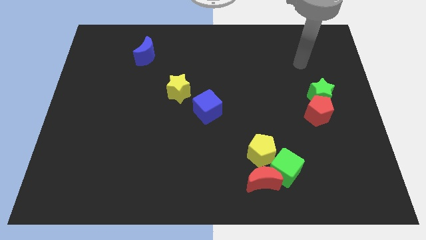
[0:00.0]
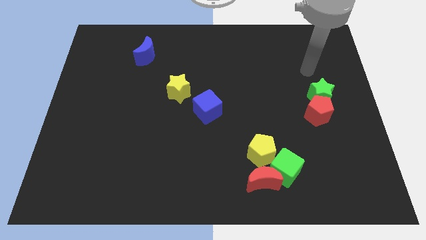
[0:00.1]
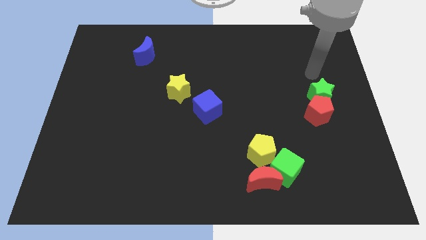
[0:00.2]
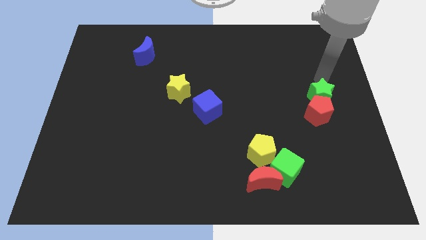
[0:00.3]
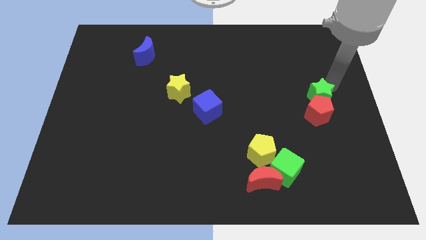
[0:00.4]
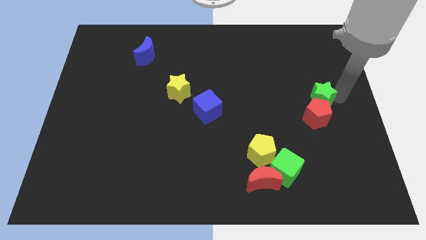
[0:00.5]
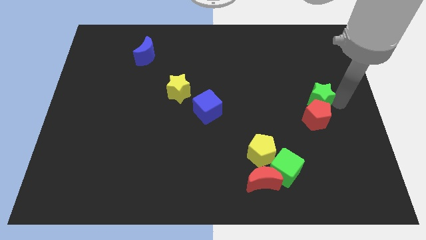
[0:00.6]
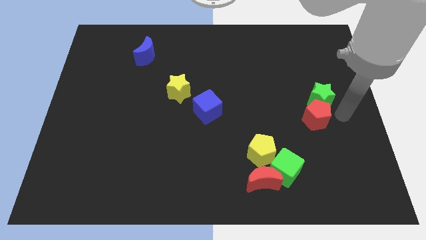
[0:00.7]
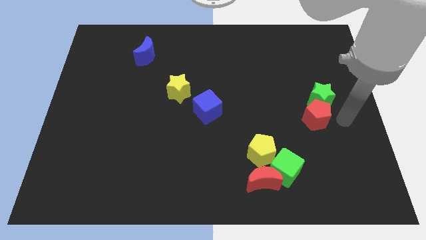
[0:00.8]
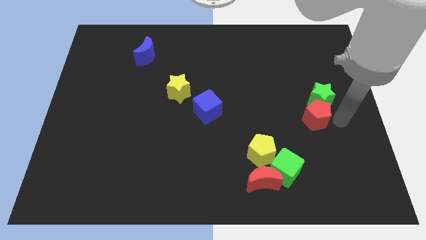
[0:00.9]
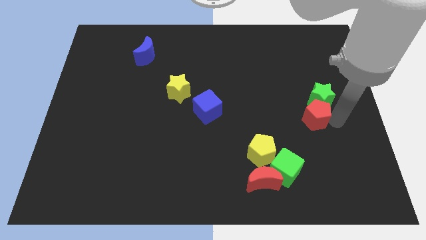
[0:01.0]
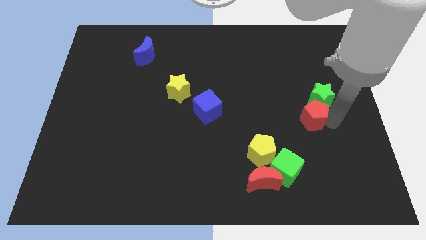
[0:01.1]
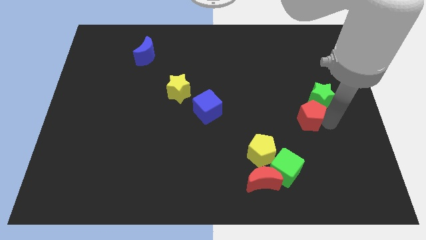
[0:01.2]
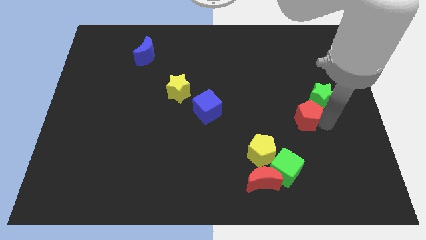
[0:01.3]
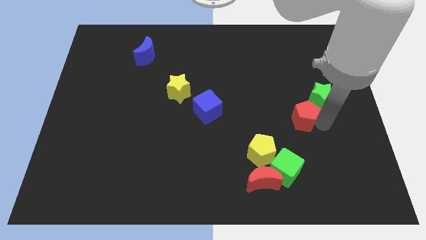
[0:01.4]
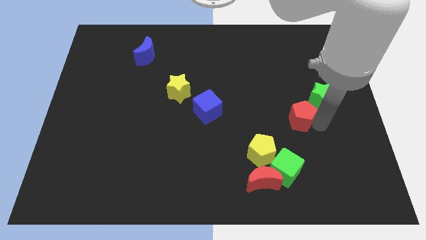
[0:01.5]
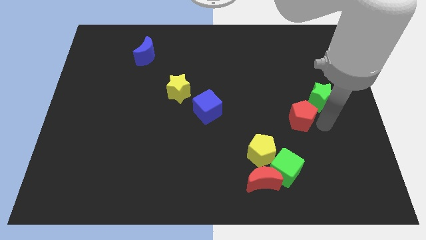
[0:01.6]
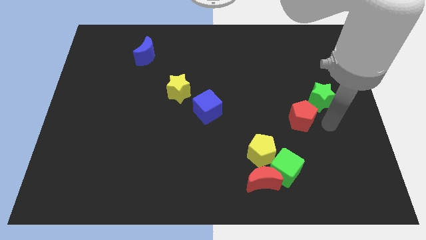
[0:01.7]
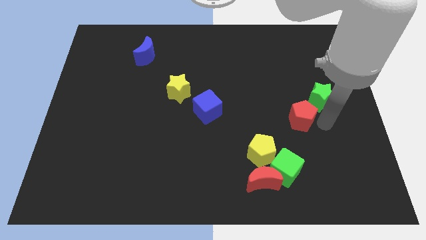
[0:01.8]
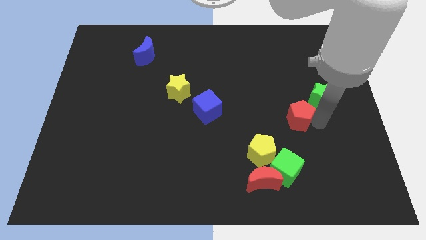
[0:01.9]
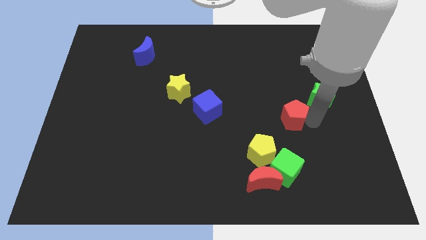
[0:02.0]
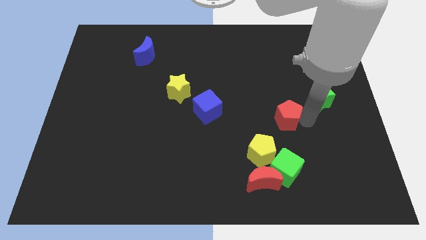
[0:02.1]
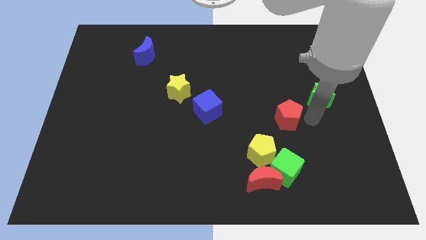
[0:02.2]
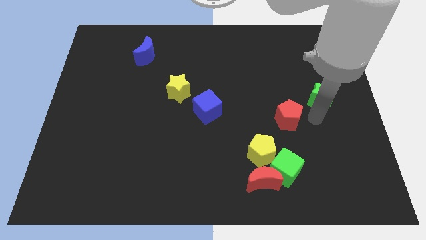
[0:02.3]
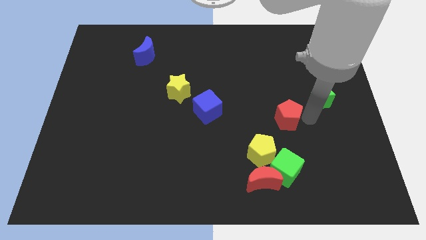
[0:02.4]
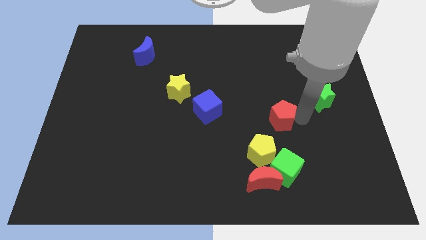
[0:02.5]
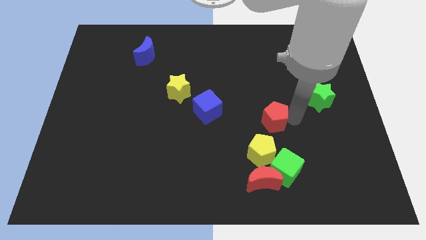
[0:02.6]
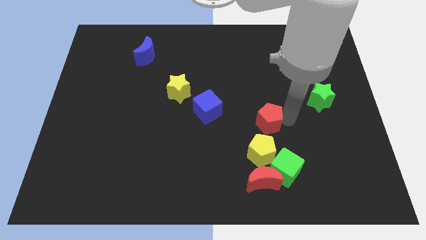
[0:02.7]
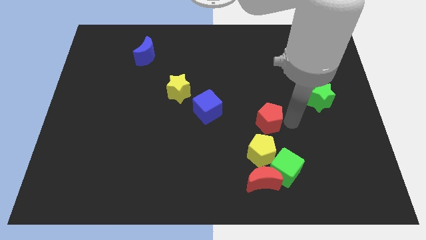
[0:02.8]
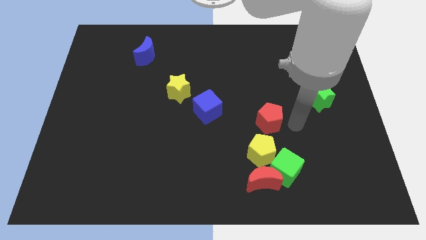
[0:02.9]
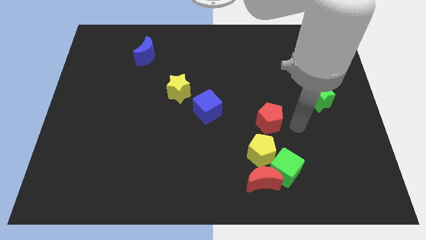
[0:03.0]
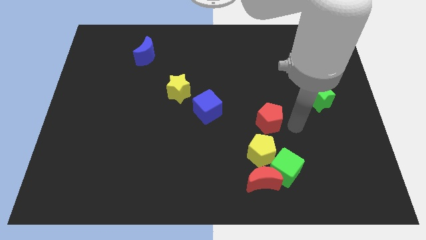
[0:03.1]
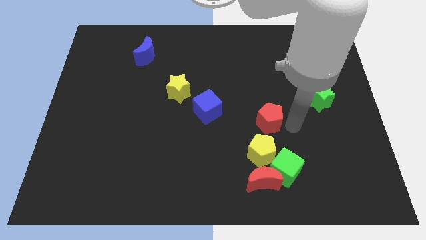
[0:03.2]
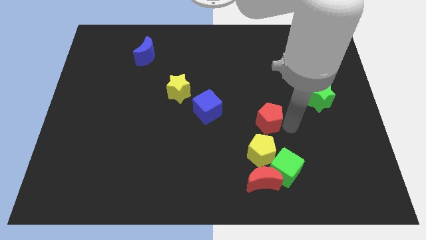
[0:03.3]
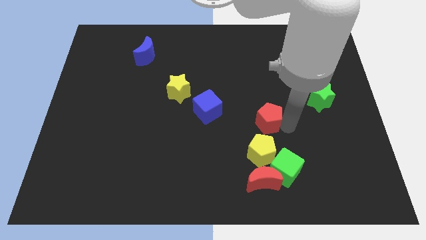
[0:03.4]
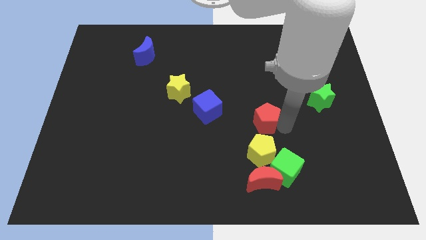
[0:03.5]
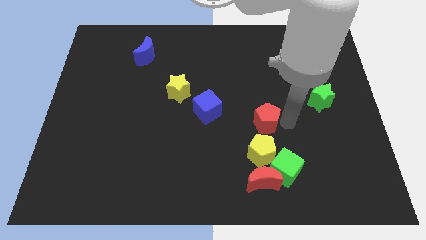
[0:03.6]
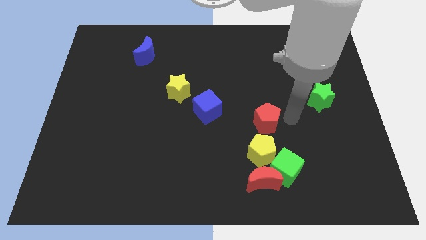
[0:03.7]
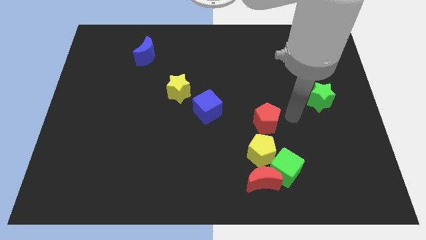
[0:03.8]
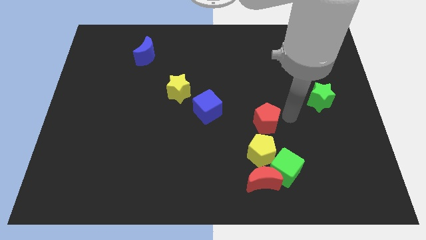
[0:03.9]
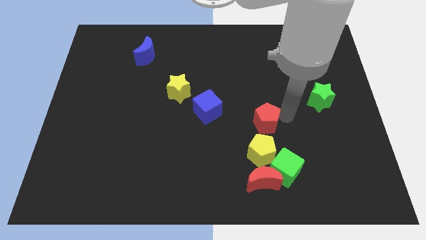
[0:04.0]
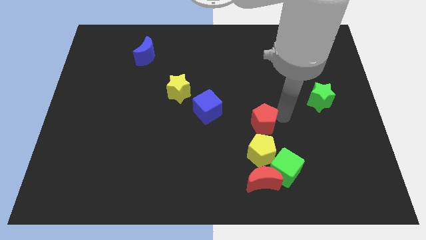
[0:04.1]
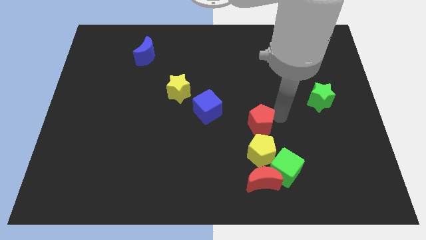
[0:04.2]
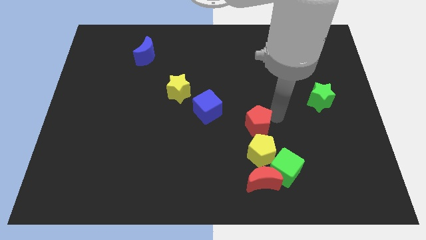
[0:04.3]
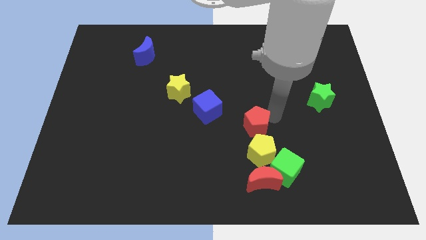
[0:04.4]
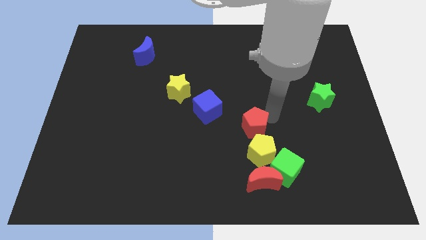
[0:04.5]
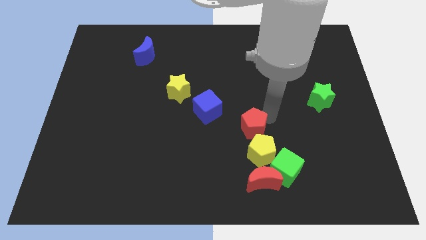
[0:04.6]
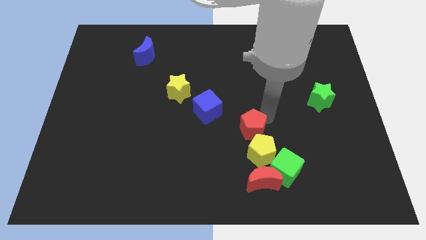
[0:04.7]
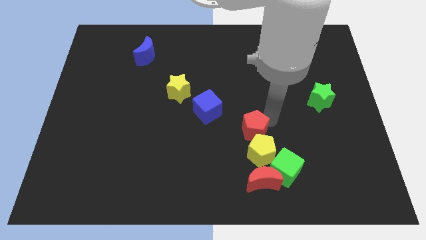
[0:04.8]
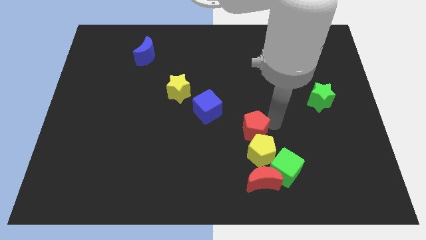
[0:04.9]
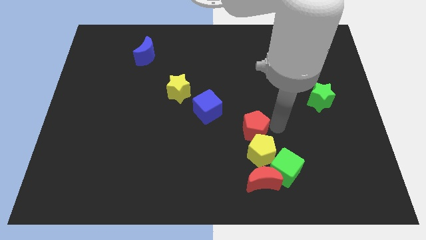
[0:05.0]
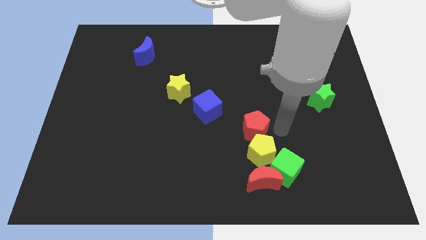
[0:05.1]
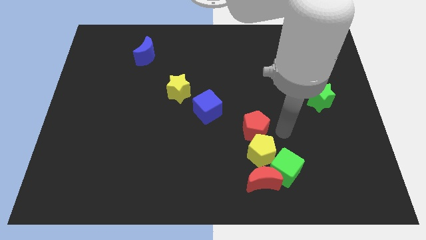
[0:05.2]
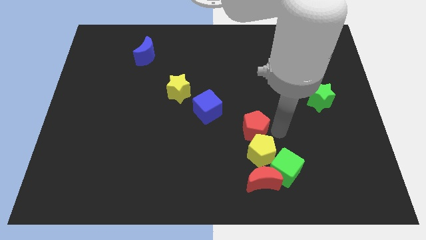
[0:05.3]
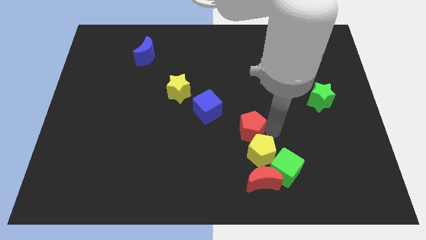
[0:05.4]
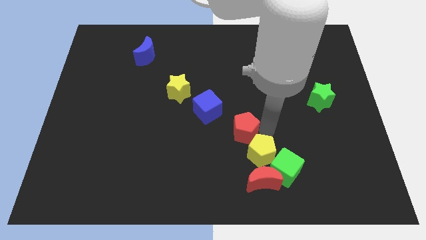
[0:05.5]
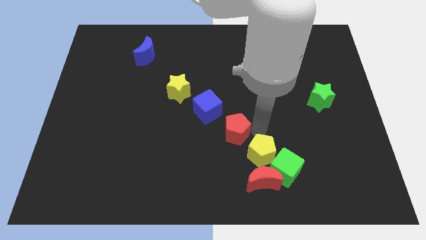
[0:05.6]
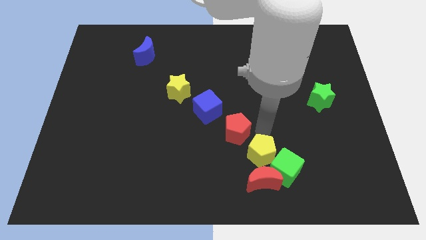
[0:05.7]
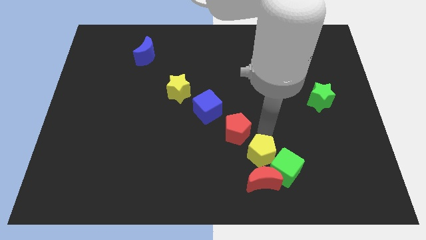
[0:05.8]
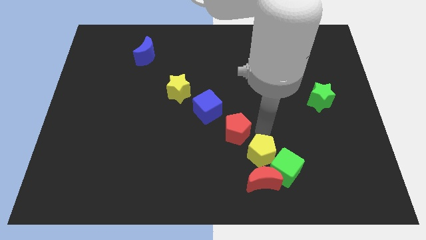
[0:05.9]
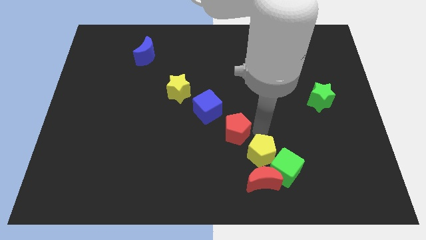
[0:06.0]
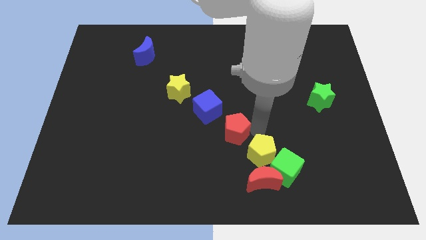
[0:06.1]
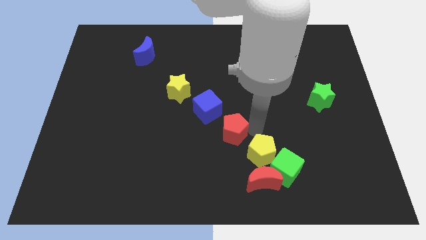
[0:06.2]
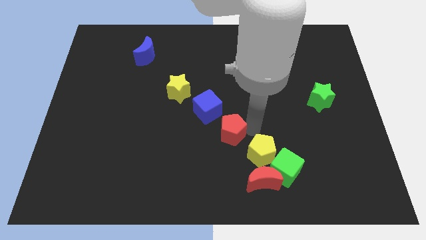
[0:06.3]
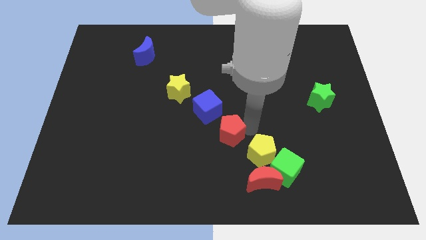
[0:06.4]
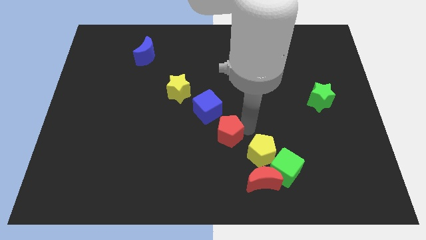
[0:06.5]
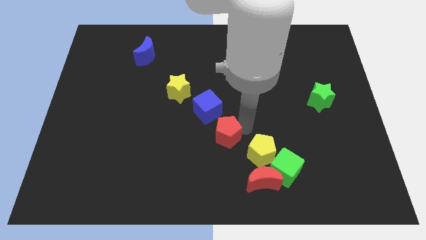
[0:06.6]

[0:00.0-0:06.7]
push the red pentagon to the left

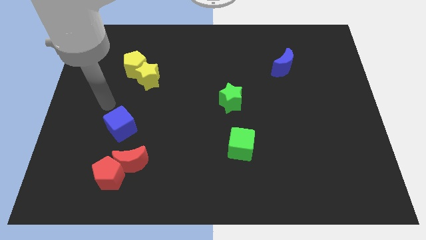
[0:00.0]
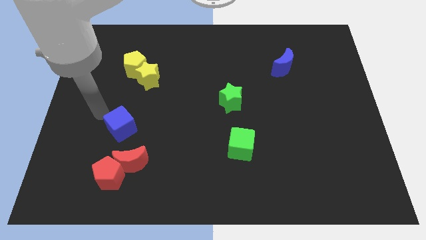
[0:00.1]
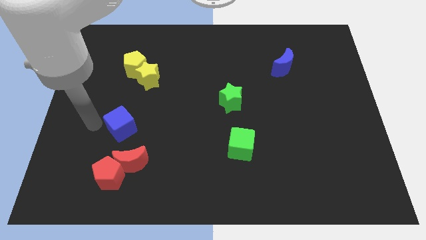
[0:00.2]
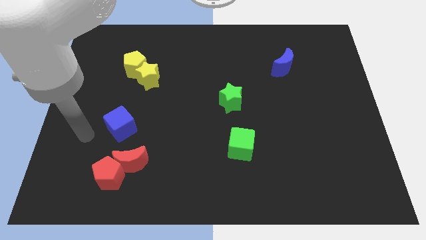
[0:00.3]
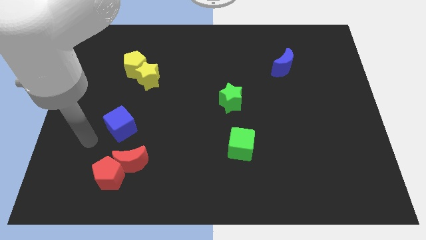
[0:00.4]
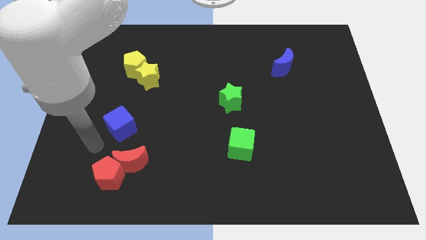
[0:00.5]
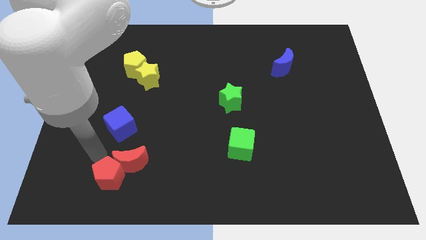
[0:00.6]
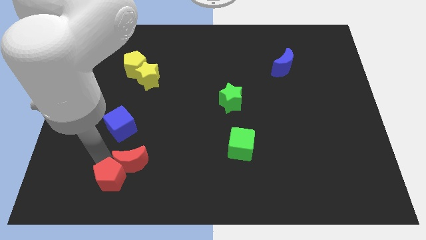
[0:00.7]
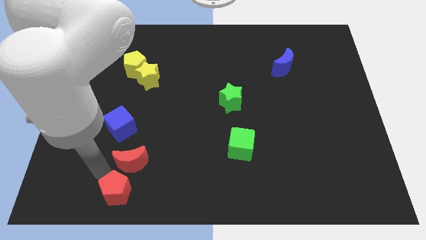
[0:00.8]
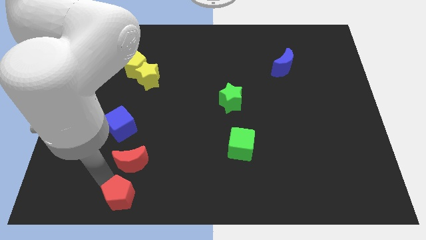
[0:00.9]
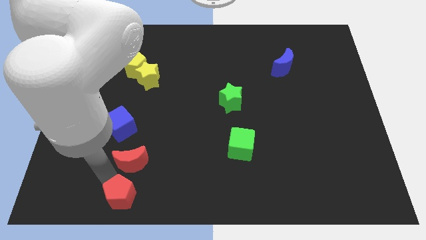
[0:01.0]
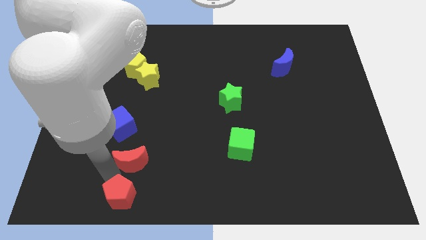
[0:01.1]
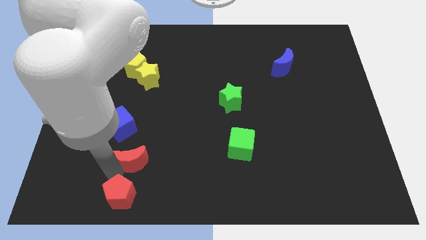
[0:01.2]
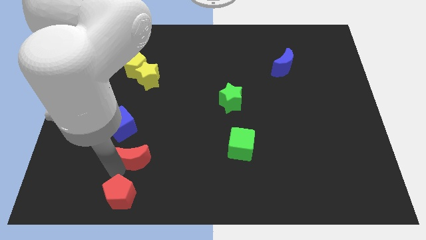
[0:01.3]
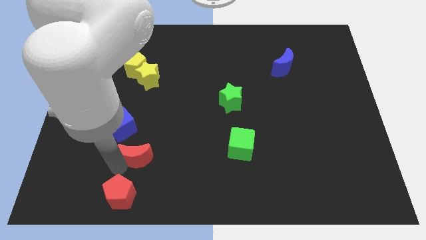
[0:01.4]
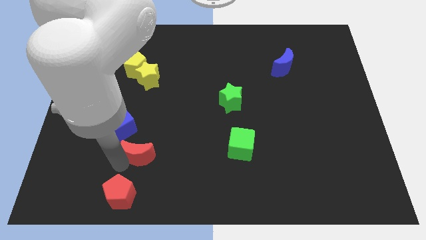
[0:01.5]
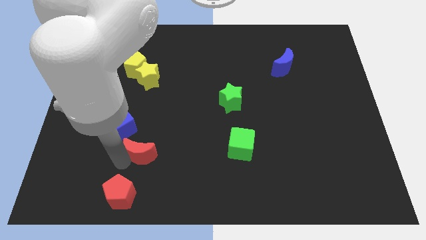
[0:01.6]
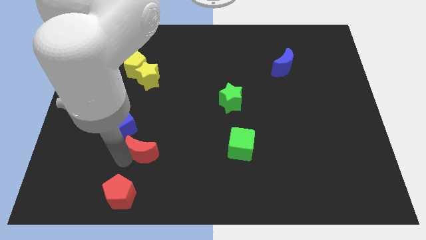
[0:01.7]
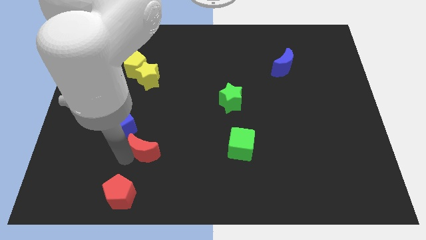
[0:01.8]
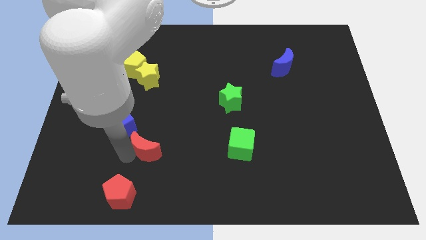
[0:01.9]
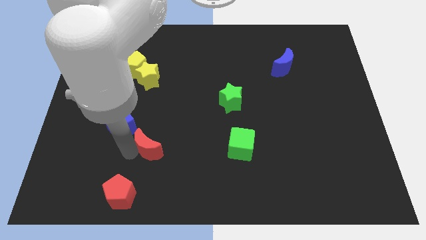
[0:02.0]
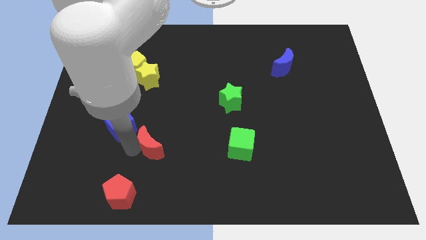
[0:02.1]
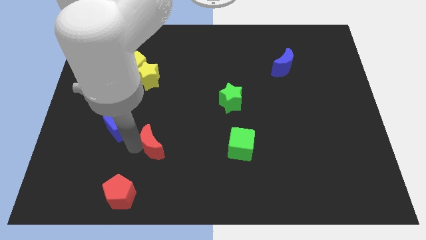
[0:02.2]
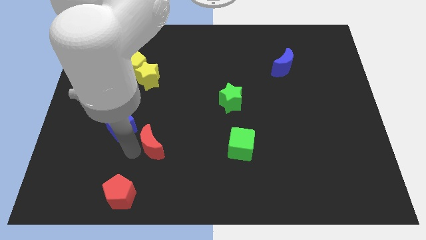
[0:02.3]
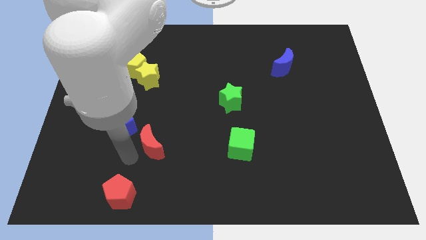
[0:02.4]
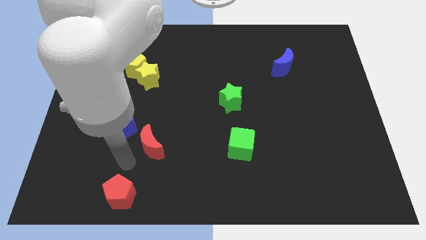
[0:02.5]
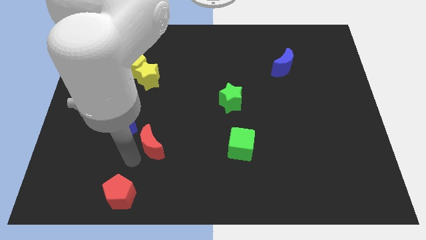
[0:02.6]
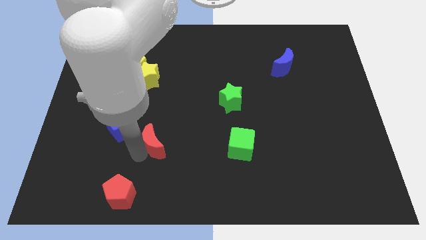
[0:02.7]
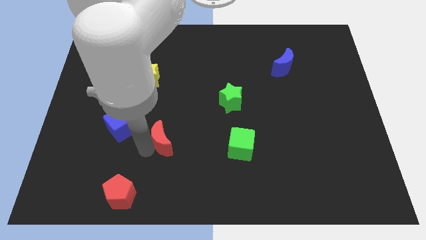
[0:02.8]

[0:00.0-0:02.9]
slide the red moon somewhat upwards and to the right
